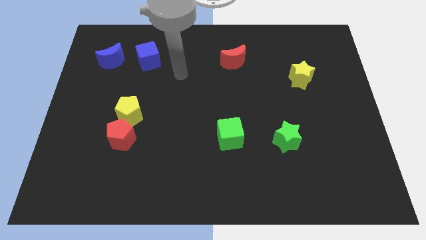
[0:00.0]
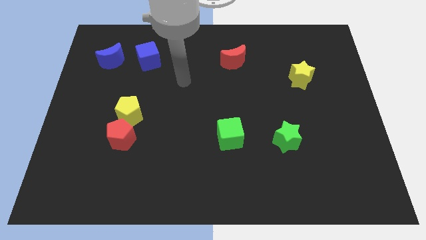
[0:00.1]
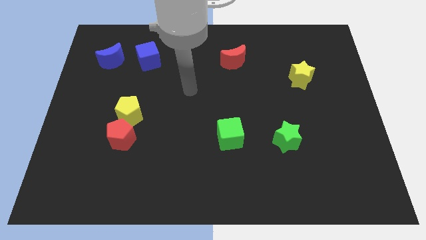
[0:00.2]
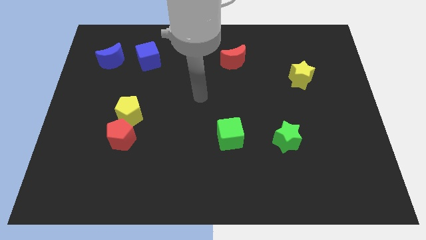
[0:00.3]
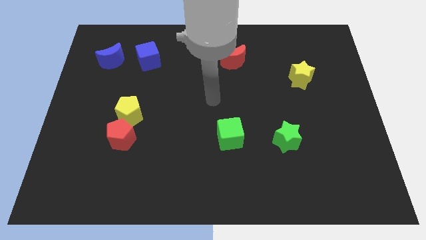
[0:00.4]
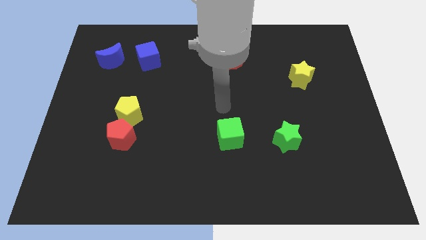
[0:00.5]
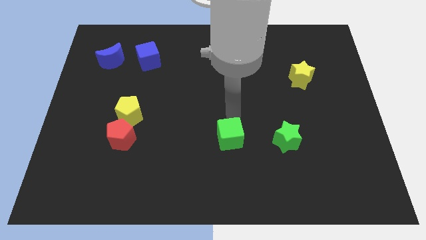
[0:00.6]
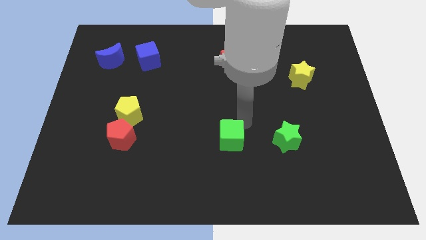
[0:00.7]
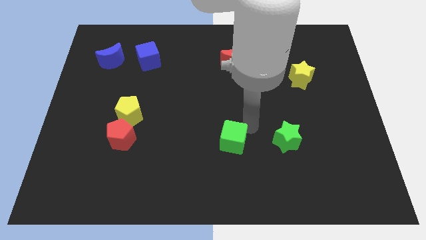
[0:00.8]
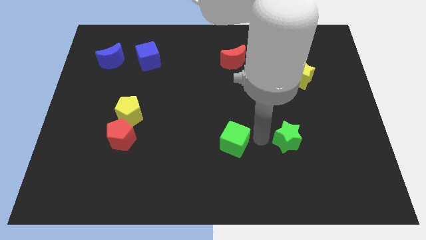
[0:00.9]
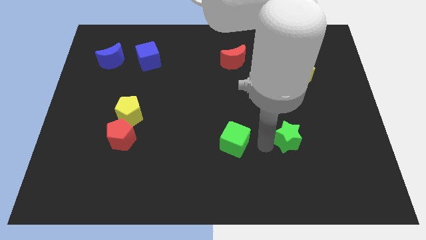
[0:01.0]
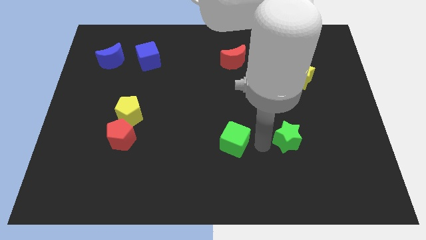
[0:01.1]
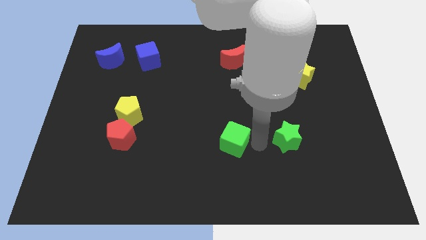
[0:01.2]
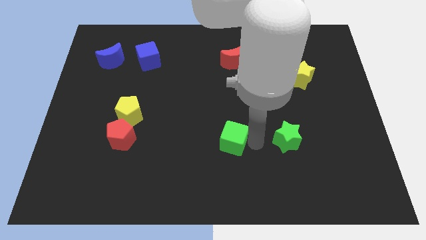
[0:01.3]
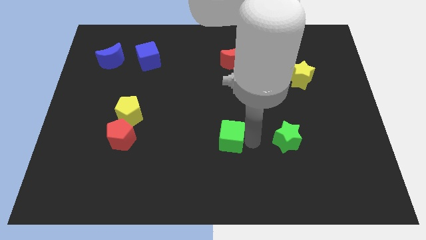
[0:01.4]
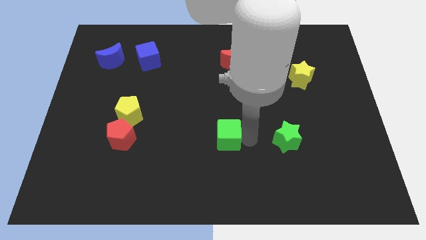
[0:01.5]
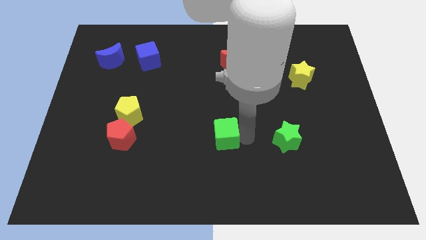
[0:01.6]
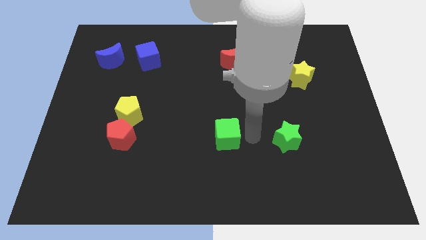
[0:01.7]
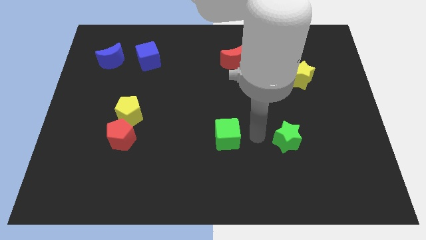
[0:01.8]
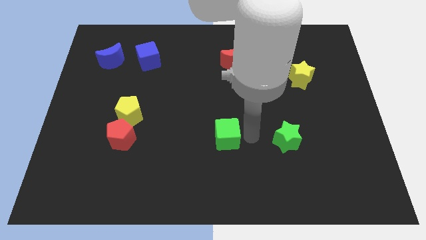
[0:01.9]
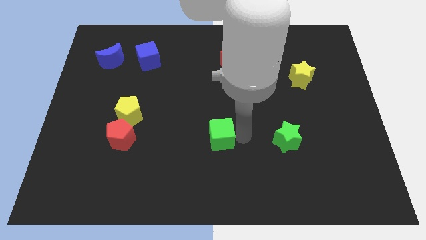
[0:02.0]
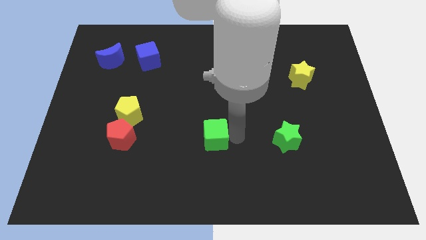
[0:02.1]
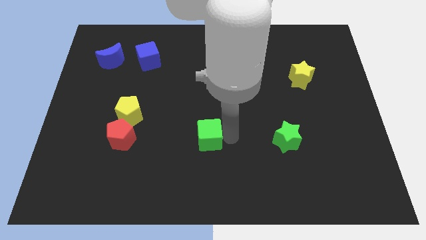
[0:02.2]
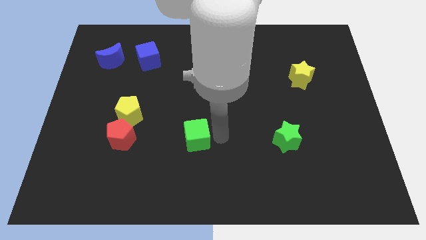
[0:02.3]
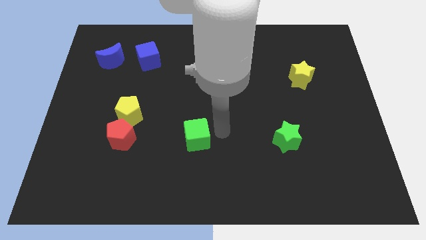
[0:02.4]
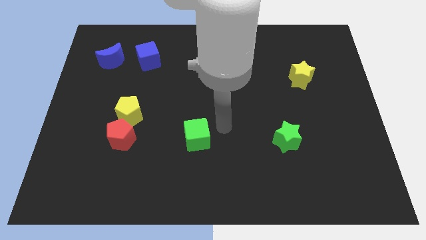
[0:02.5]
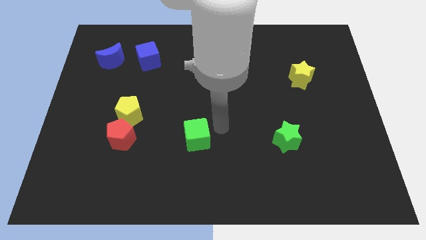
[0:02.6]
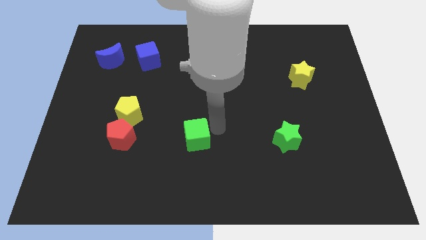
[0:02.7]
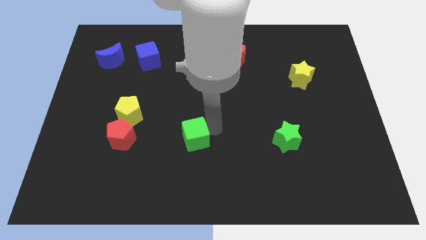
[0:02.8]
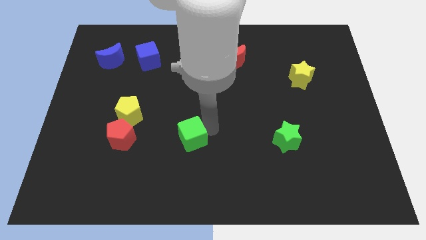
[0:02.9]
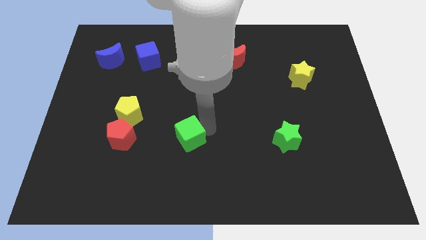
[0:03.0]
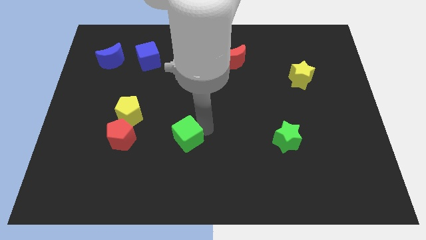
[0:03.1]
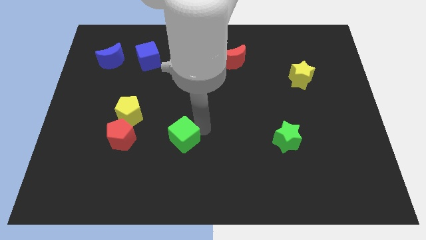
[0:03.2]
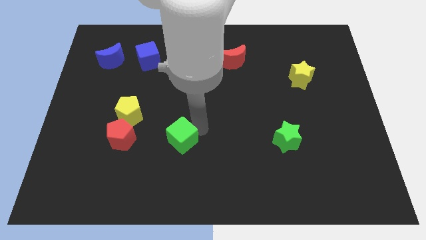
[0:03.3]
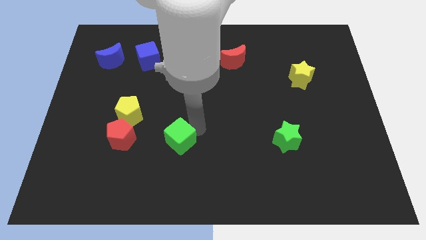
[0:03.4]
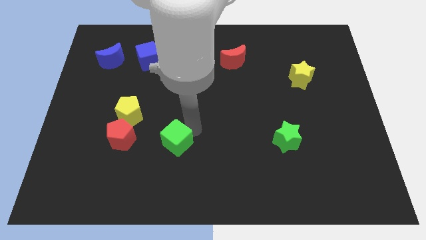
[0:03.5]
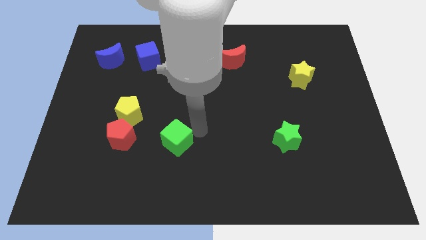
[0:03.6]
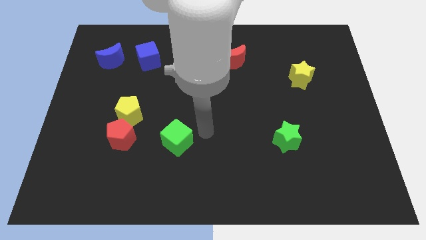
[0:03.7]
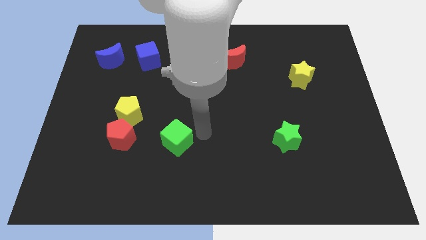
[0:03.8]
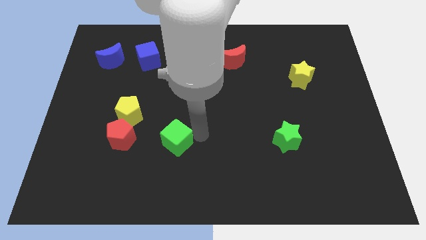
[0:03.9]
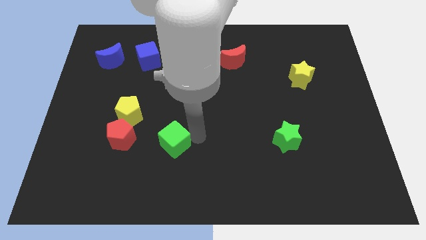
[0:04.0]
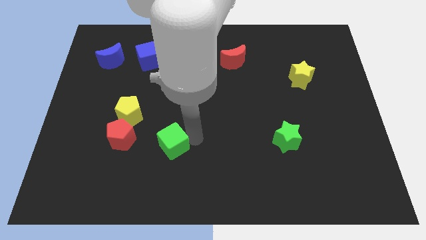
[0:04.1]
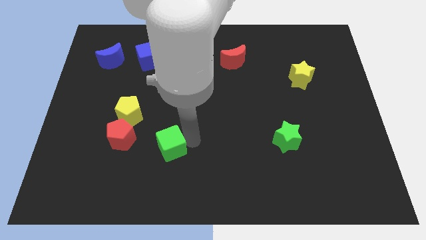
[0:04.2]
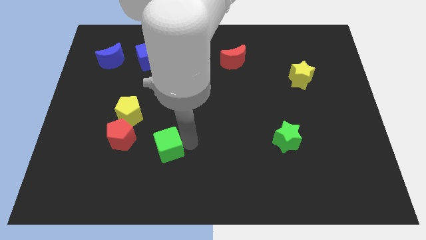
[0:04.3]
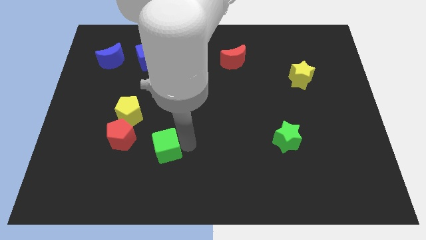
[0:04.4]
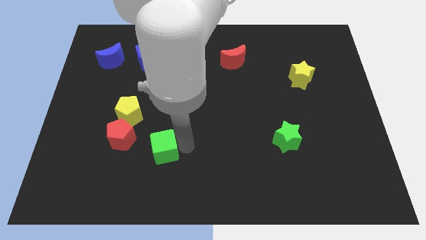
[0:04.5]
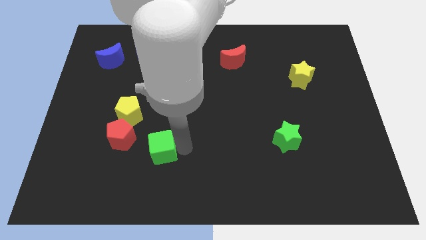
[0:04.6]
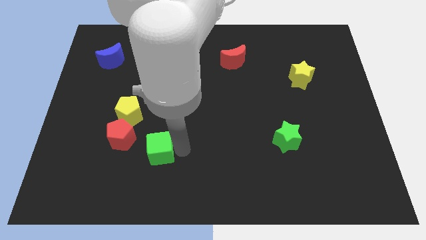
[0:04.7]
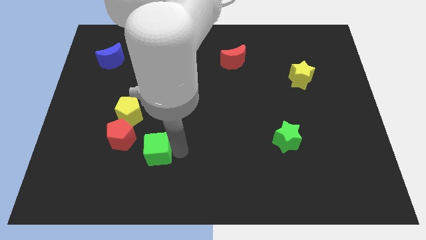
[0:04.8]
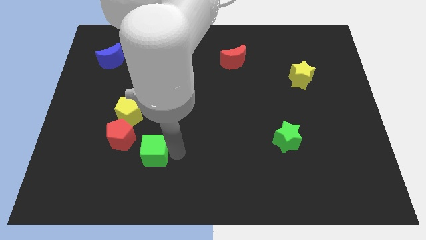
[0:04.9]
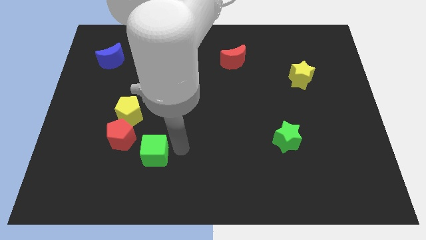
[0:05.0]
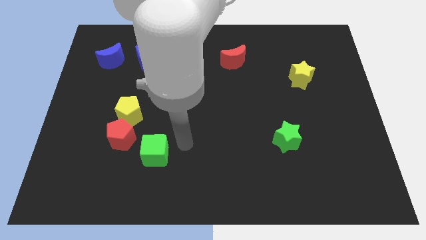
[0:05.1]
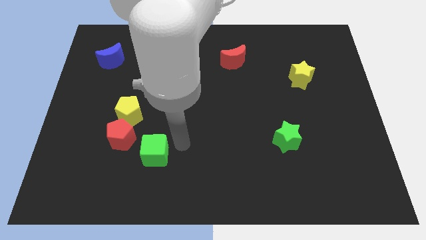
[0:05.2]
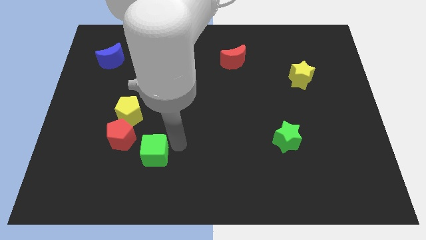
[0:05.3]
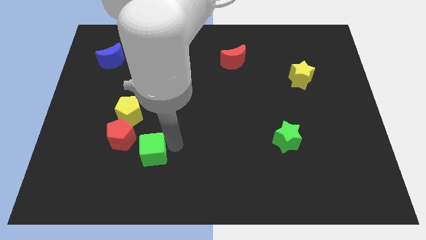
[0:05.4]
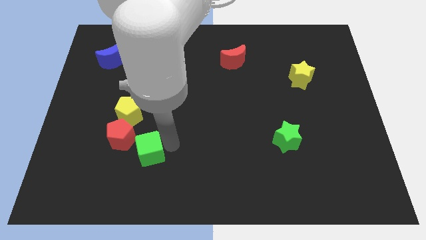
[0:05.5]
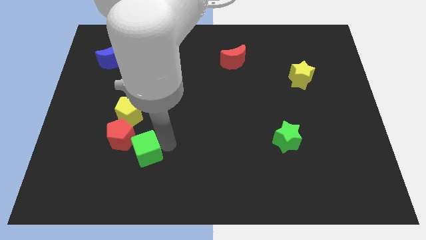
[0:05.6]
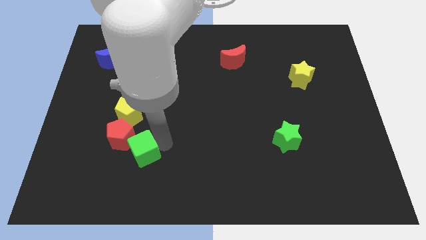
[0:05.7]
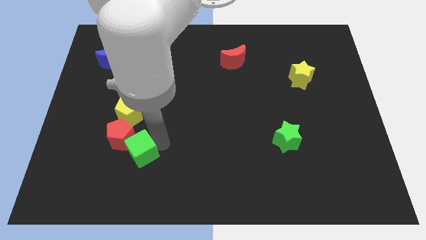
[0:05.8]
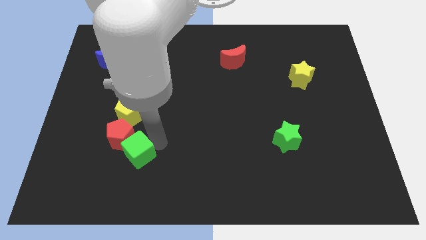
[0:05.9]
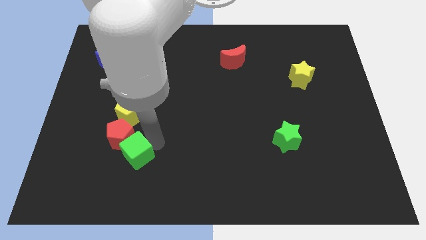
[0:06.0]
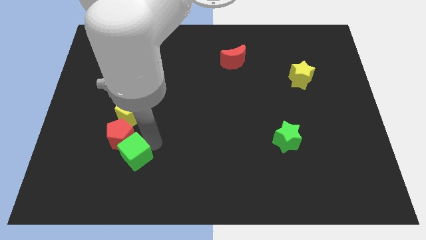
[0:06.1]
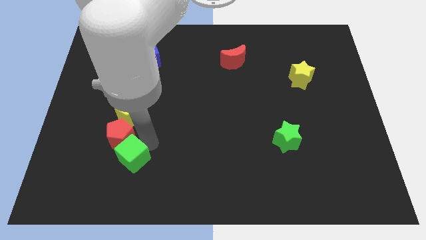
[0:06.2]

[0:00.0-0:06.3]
move the green cube left

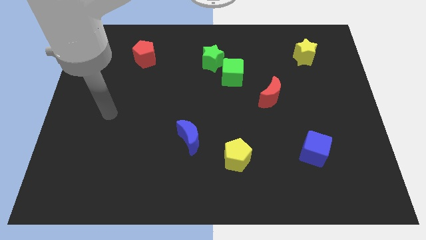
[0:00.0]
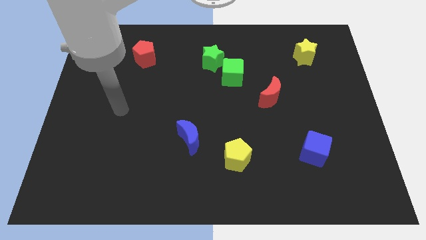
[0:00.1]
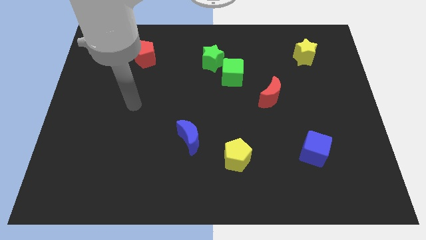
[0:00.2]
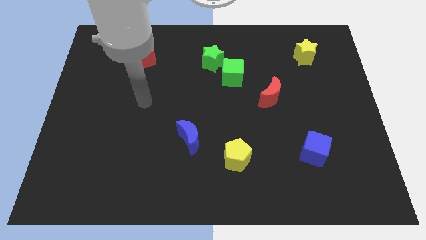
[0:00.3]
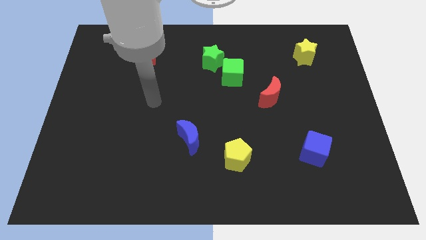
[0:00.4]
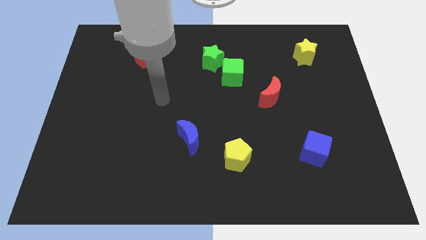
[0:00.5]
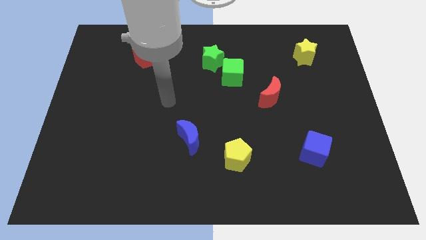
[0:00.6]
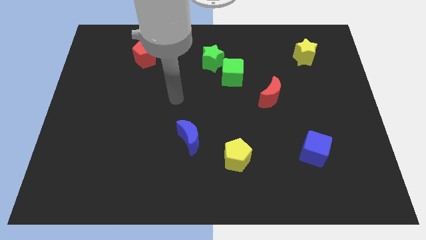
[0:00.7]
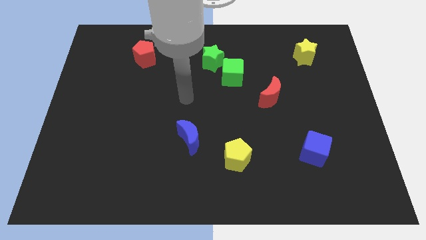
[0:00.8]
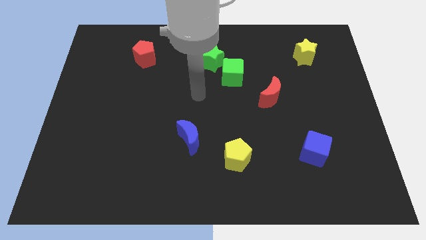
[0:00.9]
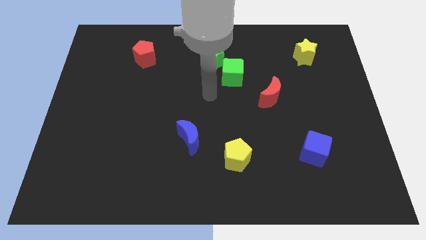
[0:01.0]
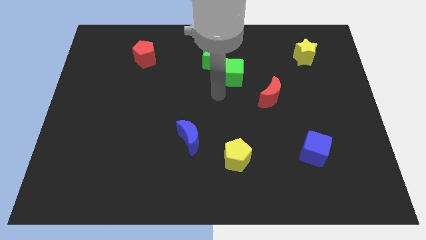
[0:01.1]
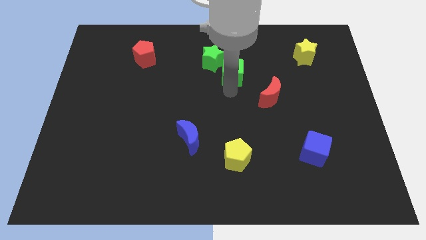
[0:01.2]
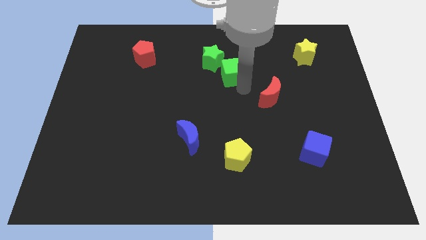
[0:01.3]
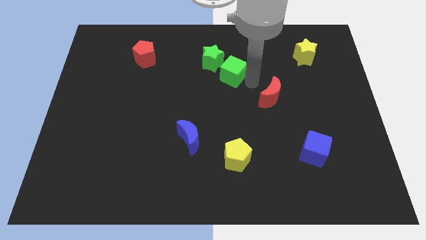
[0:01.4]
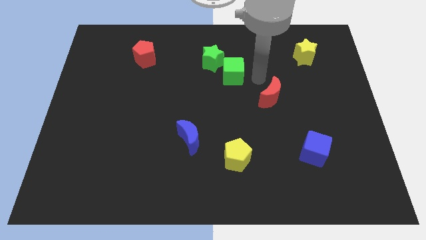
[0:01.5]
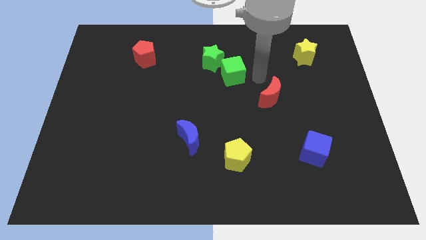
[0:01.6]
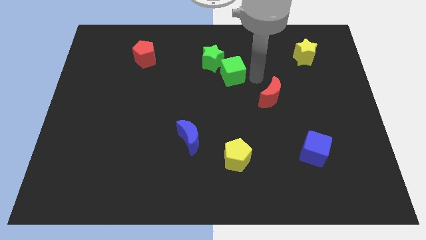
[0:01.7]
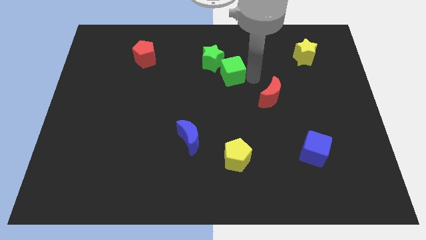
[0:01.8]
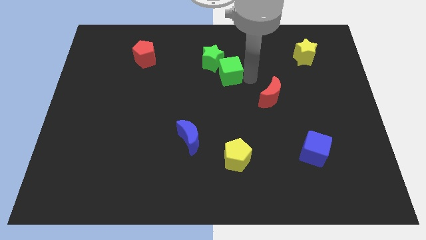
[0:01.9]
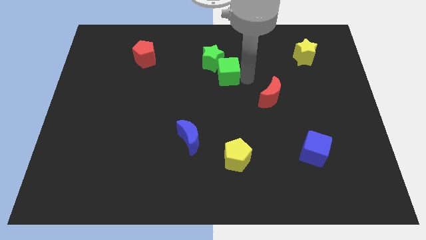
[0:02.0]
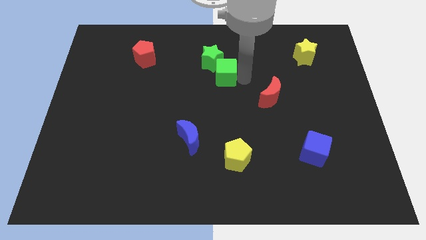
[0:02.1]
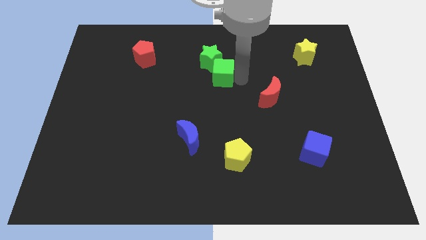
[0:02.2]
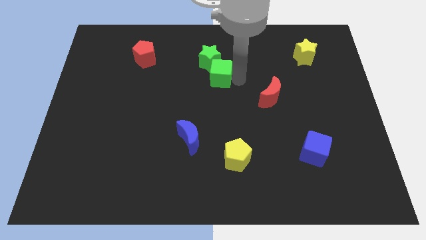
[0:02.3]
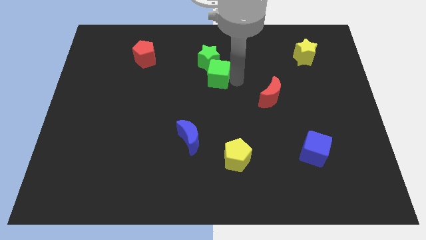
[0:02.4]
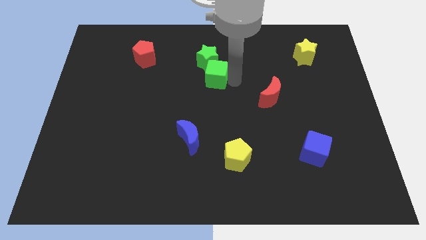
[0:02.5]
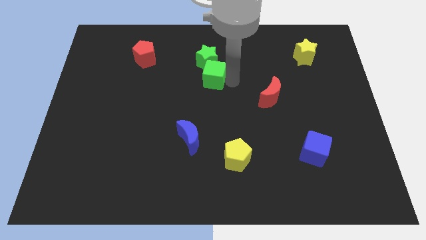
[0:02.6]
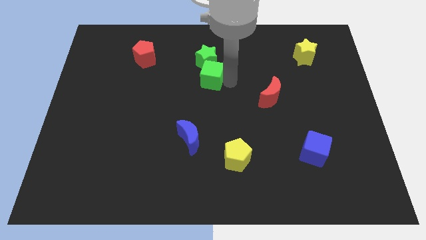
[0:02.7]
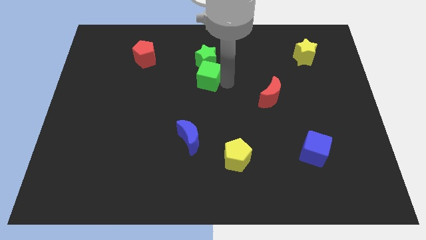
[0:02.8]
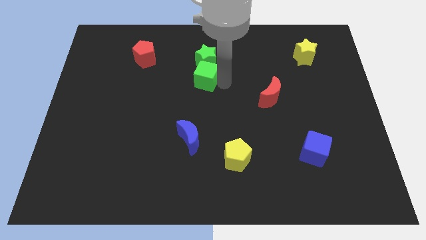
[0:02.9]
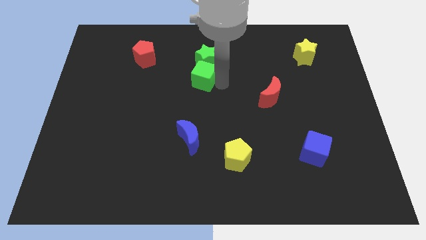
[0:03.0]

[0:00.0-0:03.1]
slightly move the green cube to the left
